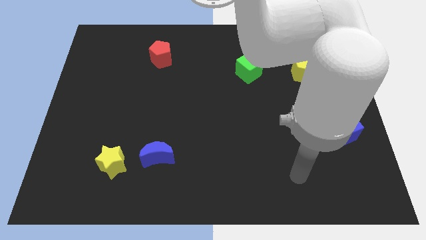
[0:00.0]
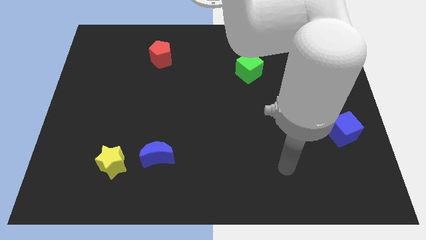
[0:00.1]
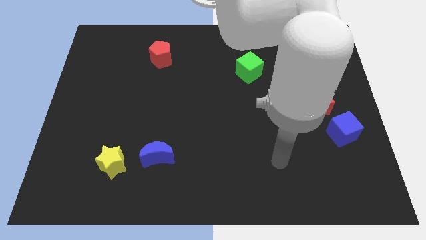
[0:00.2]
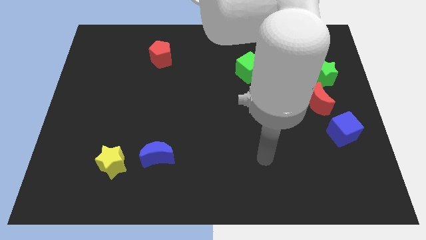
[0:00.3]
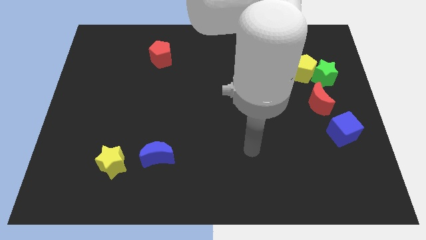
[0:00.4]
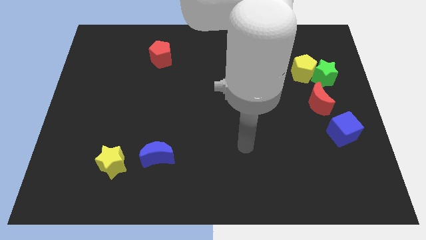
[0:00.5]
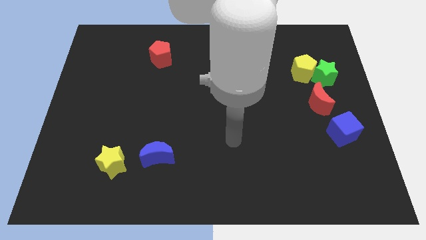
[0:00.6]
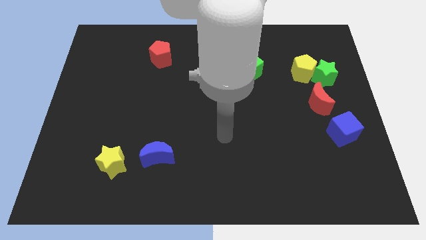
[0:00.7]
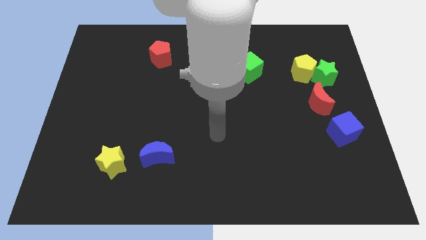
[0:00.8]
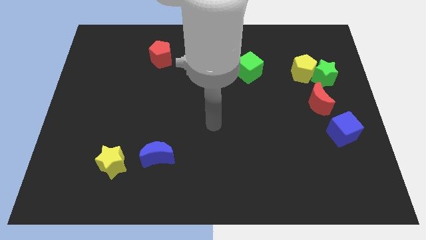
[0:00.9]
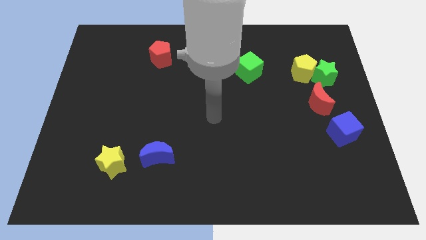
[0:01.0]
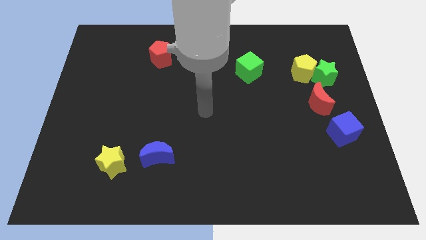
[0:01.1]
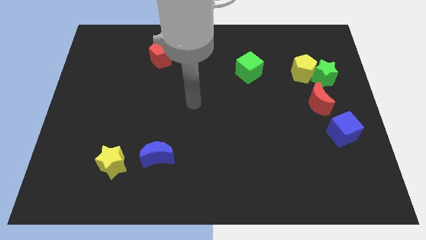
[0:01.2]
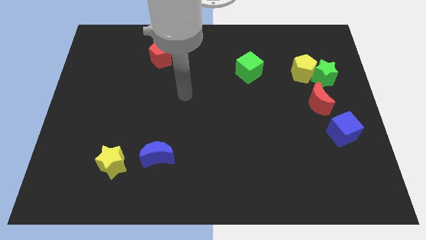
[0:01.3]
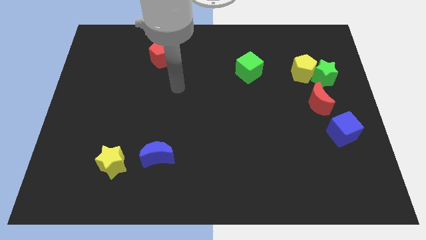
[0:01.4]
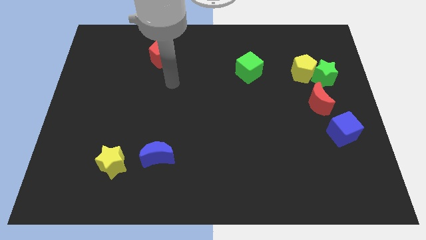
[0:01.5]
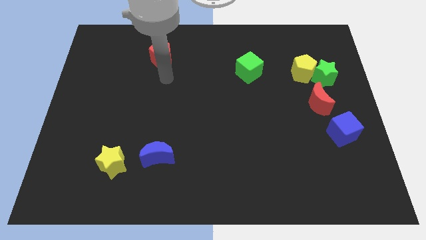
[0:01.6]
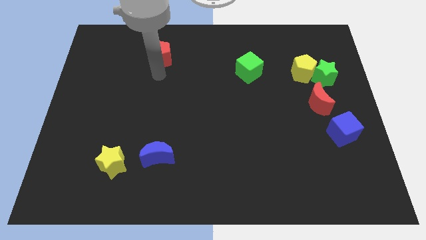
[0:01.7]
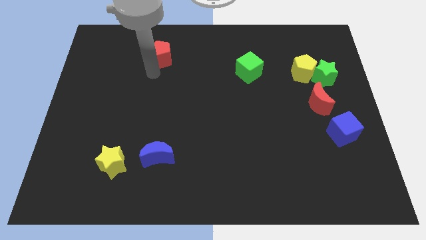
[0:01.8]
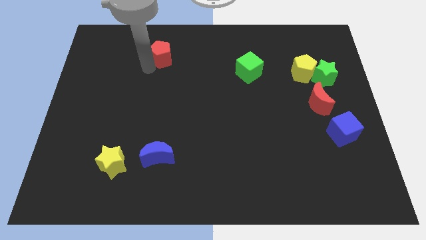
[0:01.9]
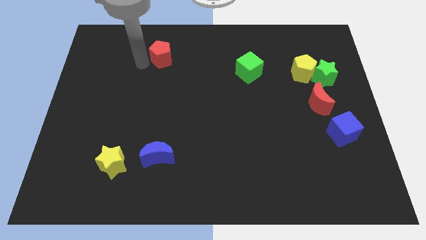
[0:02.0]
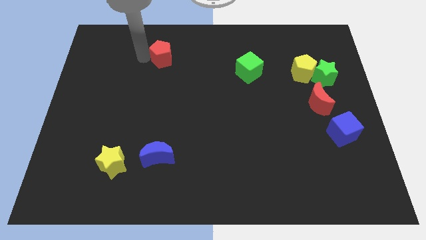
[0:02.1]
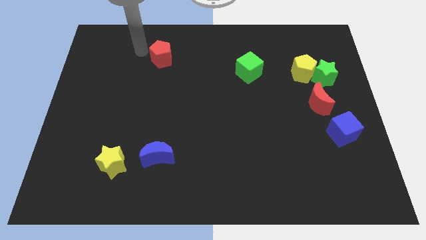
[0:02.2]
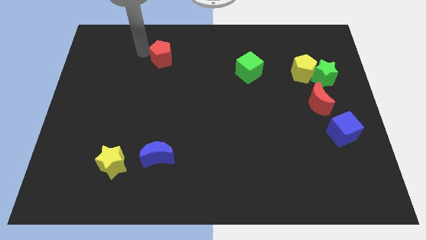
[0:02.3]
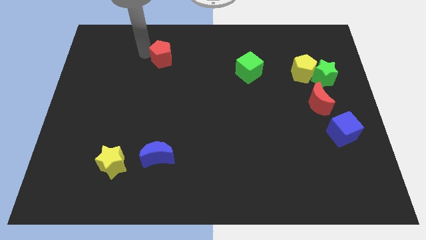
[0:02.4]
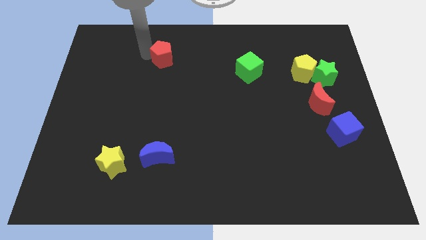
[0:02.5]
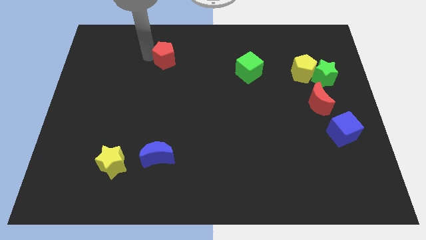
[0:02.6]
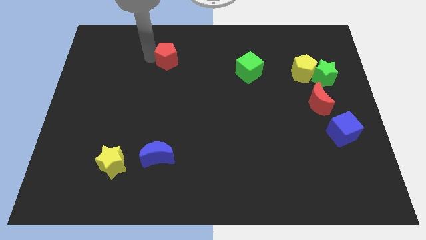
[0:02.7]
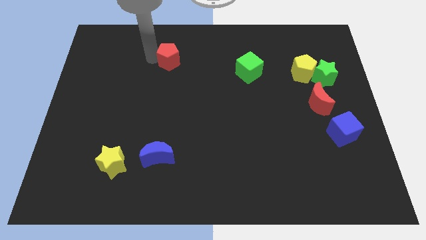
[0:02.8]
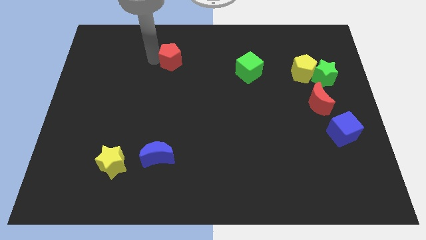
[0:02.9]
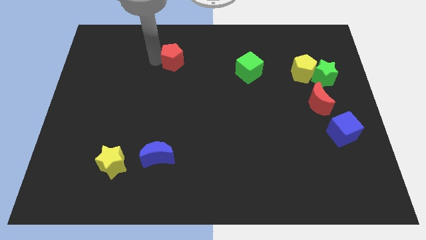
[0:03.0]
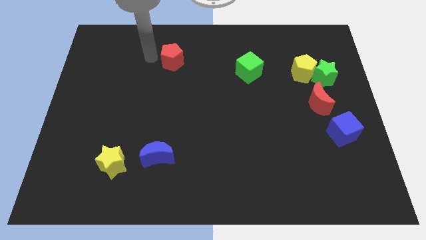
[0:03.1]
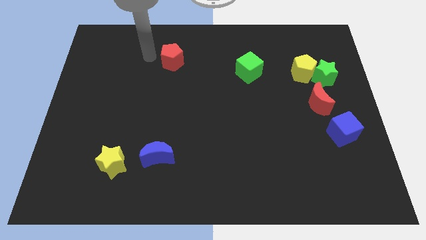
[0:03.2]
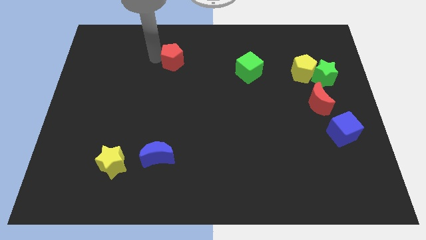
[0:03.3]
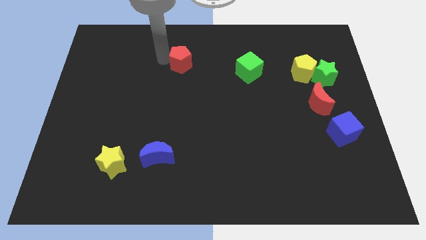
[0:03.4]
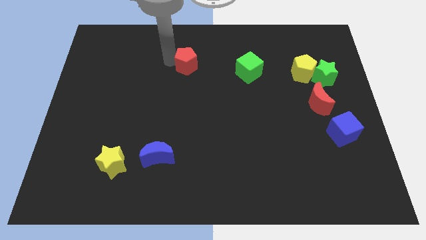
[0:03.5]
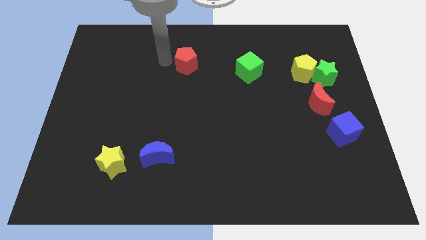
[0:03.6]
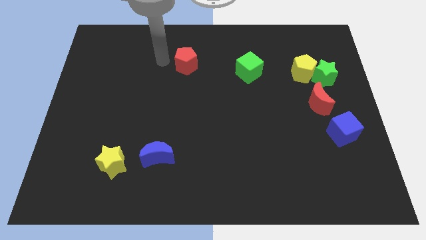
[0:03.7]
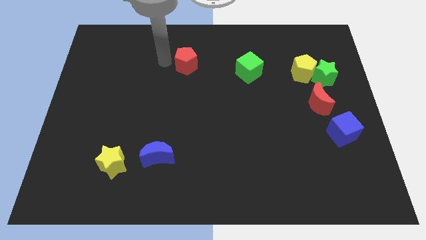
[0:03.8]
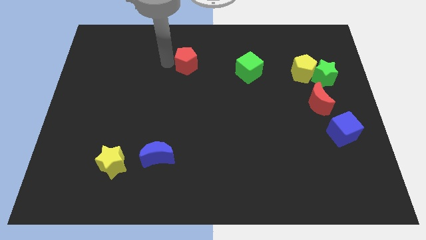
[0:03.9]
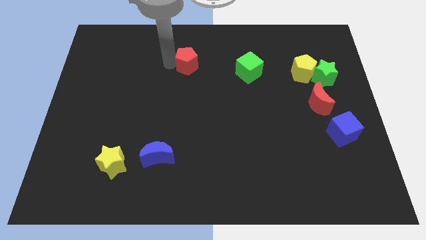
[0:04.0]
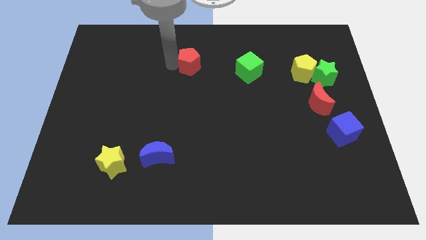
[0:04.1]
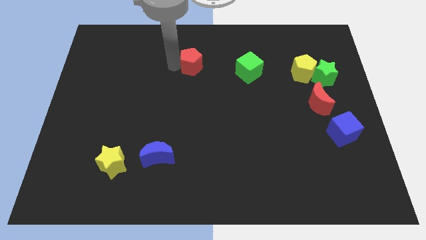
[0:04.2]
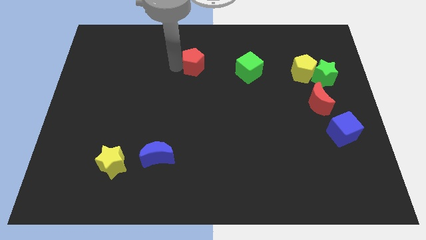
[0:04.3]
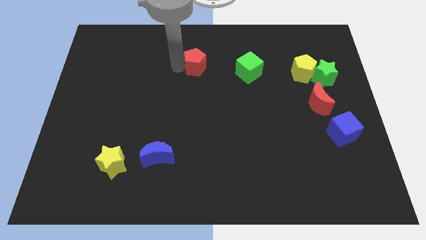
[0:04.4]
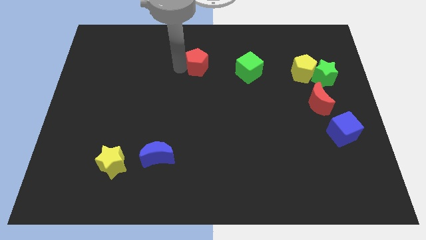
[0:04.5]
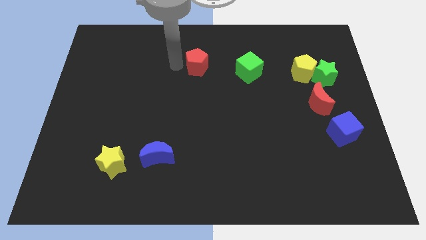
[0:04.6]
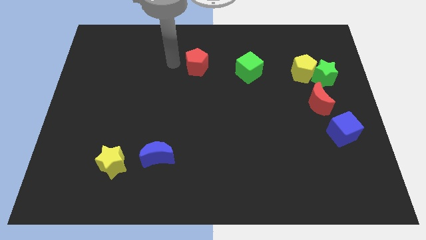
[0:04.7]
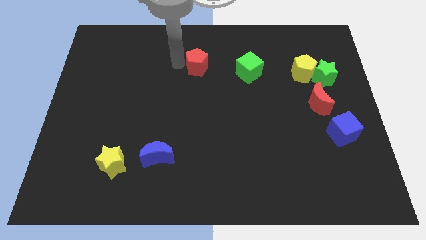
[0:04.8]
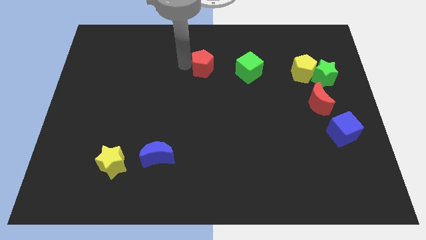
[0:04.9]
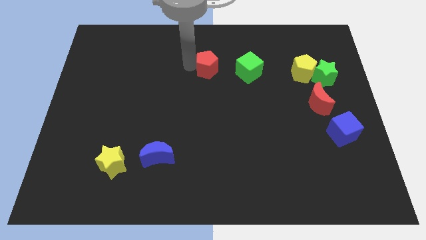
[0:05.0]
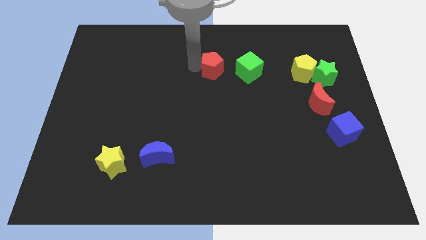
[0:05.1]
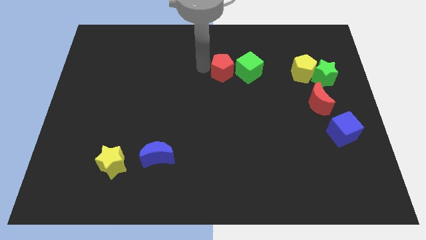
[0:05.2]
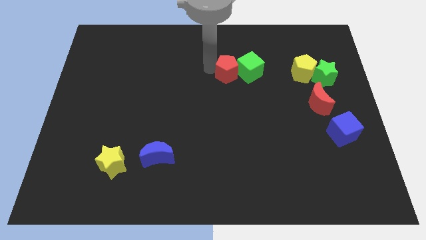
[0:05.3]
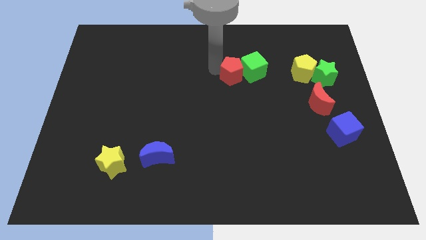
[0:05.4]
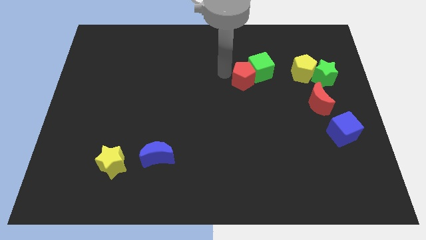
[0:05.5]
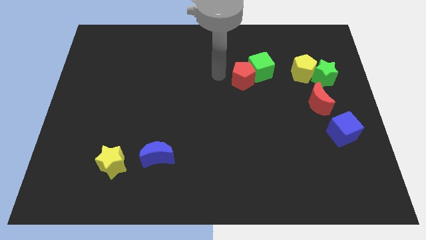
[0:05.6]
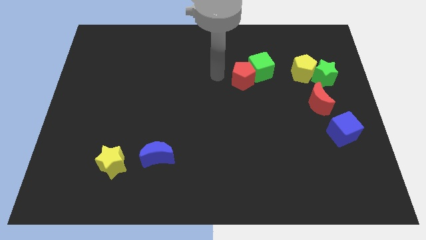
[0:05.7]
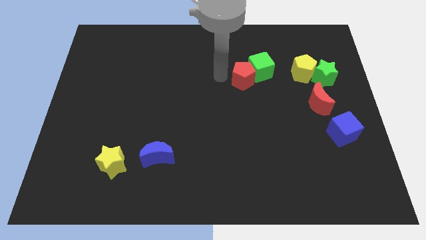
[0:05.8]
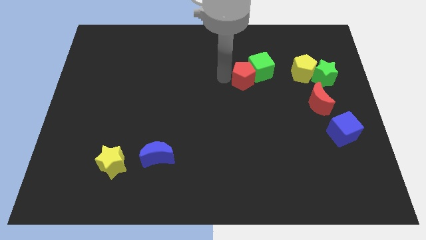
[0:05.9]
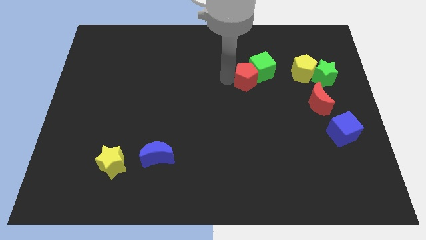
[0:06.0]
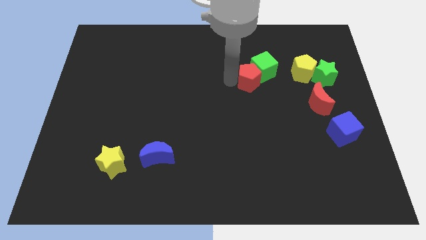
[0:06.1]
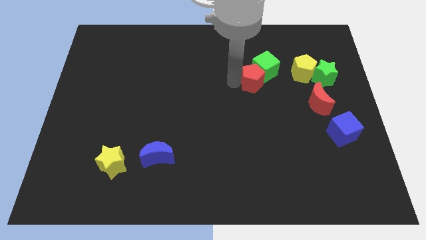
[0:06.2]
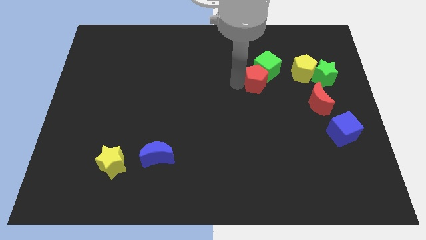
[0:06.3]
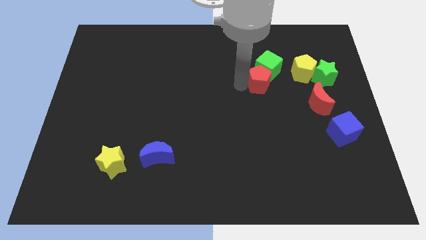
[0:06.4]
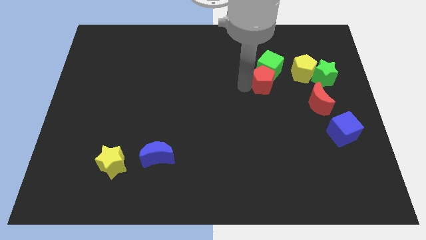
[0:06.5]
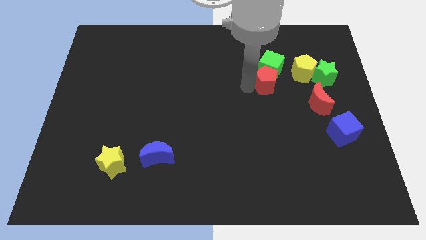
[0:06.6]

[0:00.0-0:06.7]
slide the red pentagon diagonally down and to the right of the green cube
